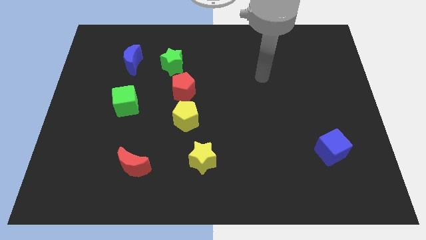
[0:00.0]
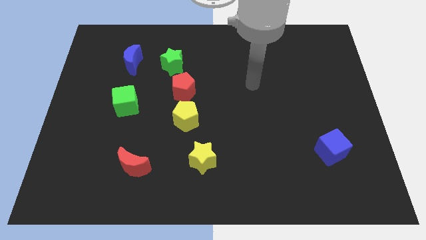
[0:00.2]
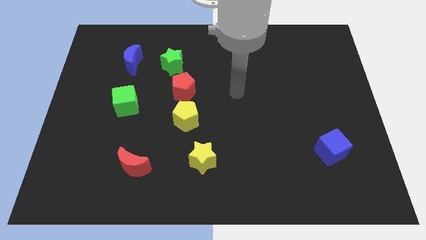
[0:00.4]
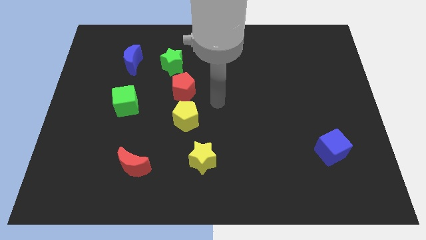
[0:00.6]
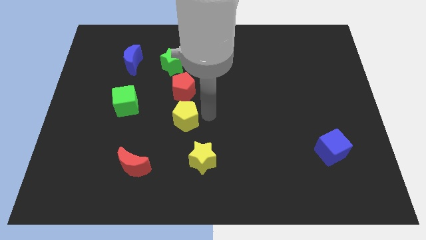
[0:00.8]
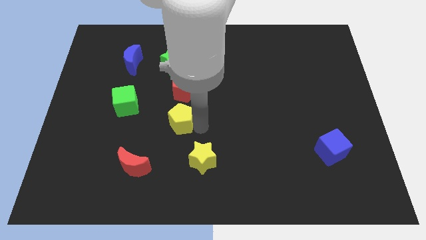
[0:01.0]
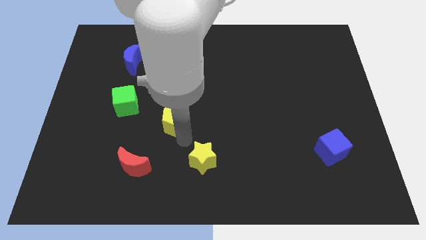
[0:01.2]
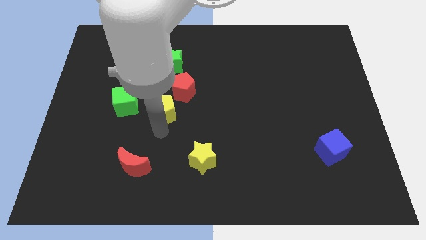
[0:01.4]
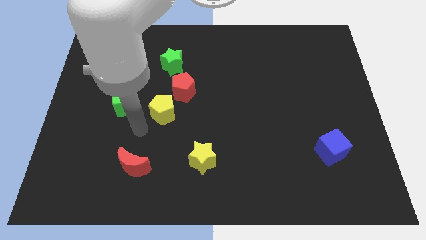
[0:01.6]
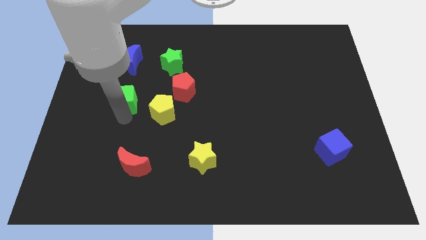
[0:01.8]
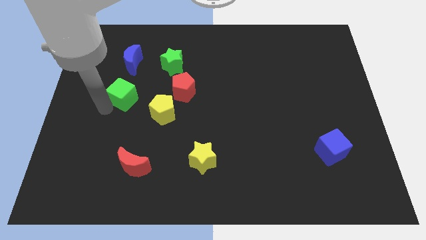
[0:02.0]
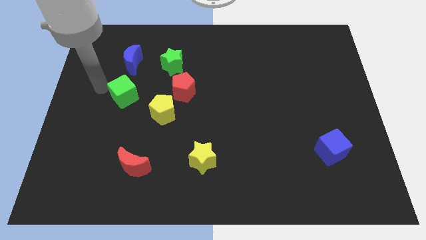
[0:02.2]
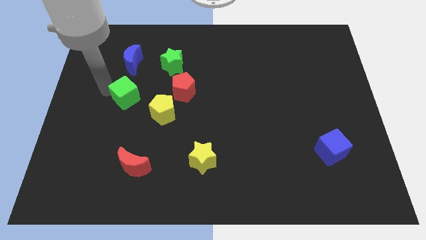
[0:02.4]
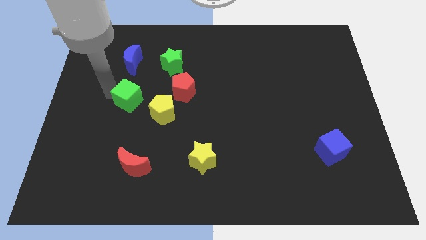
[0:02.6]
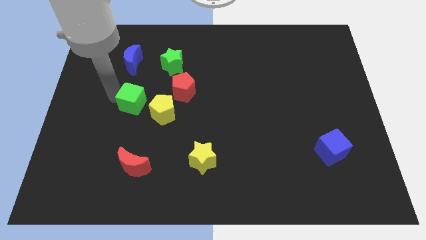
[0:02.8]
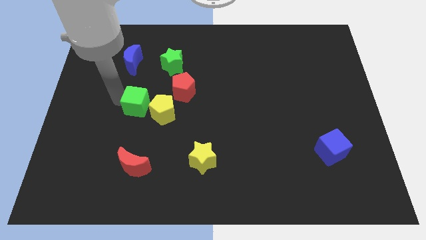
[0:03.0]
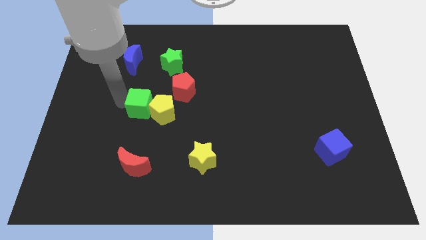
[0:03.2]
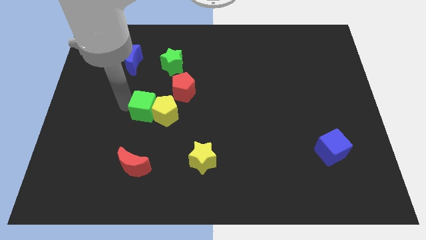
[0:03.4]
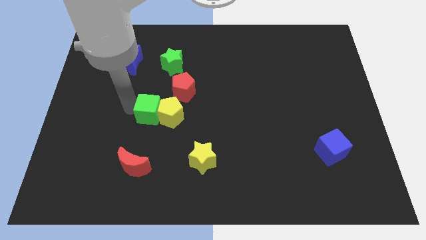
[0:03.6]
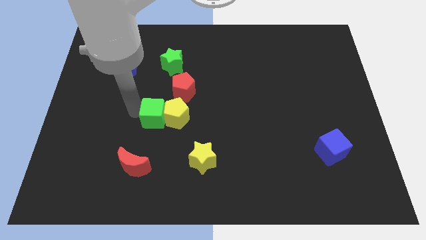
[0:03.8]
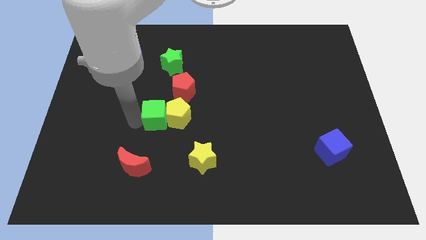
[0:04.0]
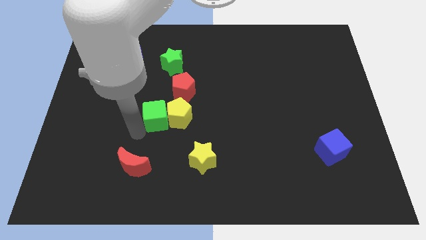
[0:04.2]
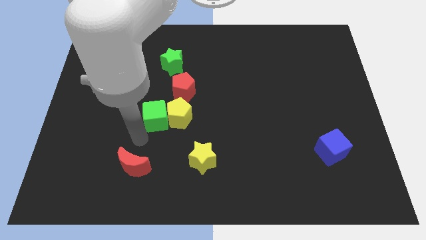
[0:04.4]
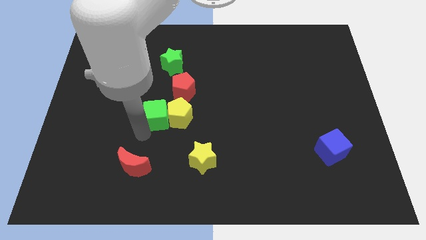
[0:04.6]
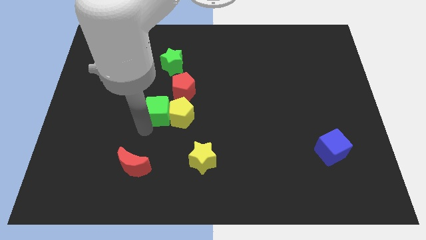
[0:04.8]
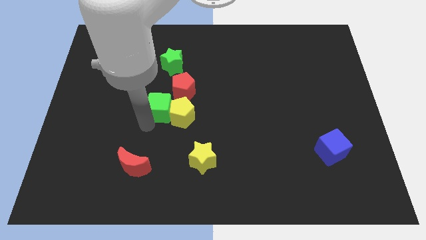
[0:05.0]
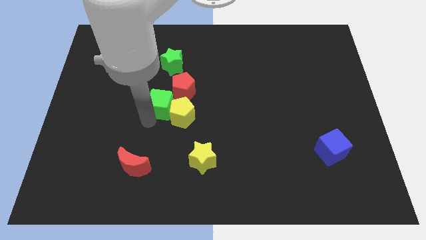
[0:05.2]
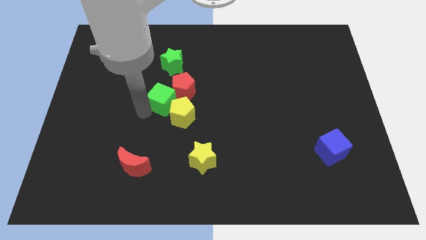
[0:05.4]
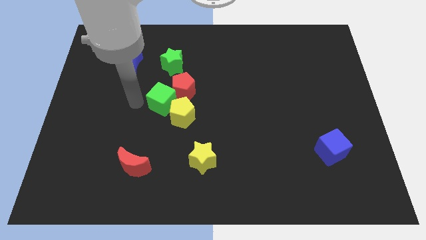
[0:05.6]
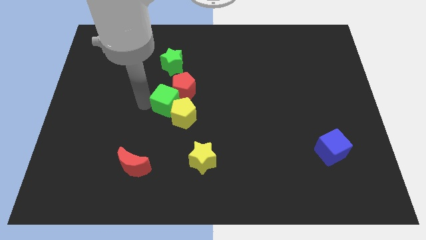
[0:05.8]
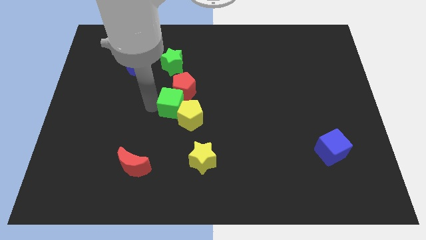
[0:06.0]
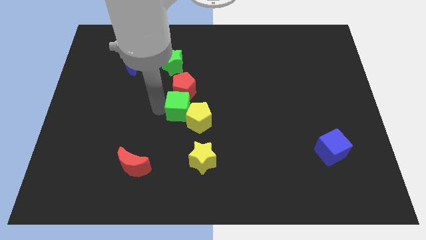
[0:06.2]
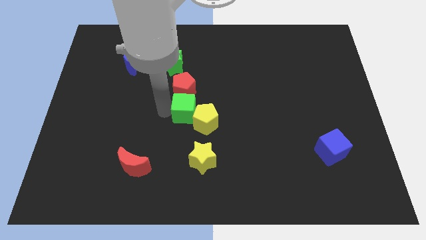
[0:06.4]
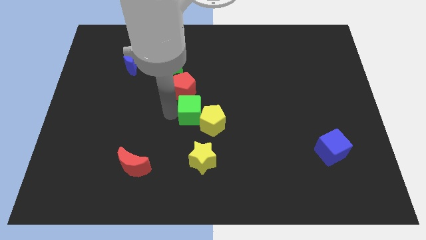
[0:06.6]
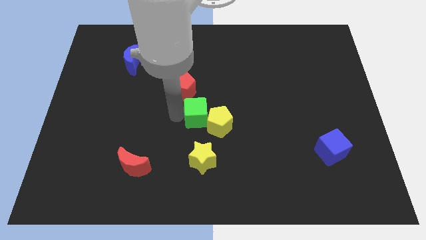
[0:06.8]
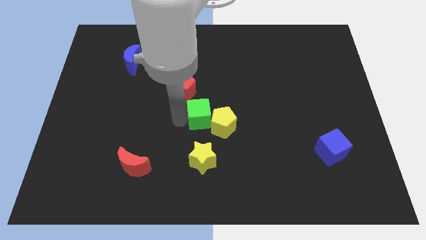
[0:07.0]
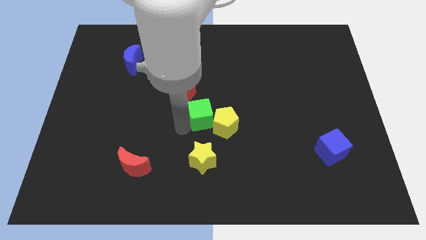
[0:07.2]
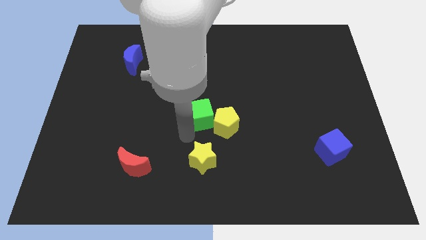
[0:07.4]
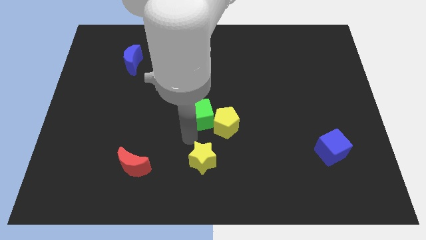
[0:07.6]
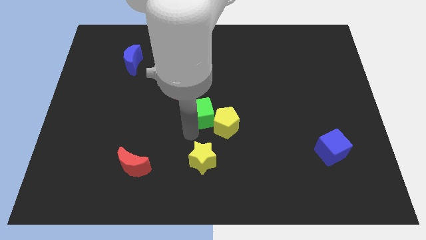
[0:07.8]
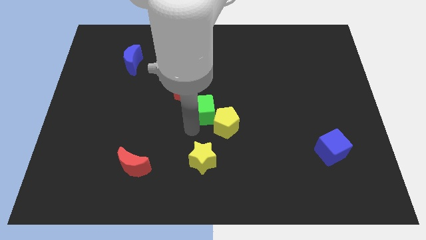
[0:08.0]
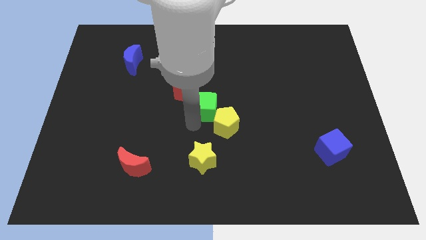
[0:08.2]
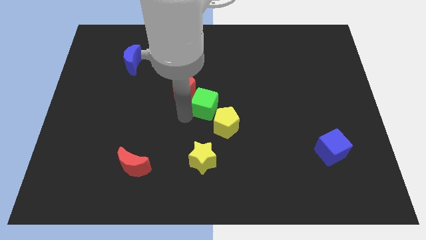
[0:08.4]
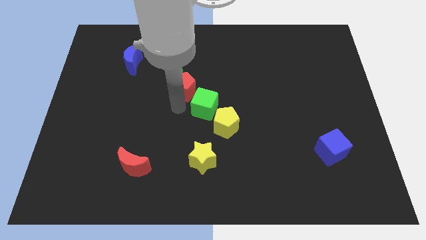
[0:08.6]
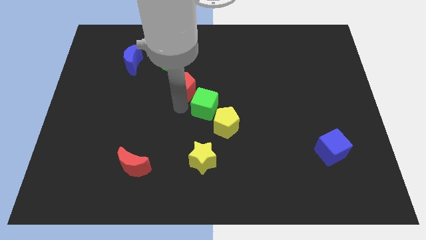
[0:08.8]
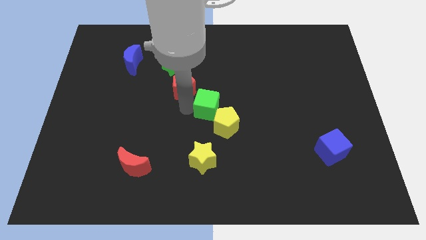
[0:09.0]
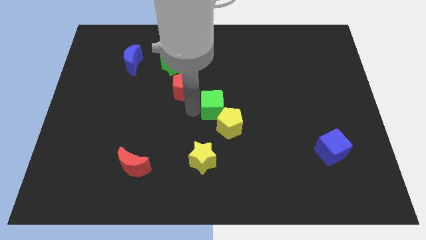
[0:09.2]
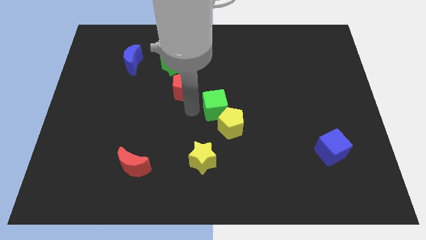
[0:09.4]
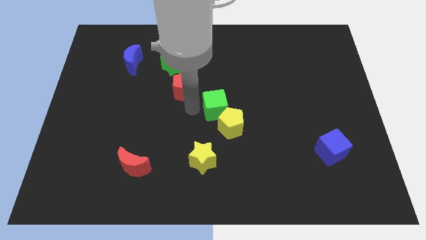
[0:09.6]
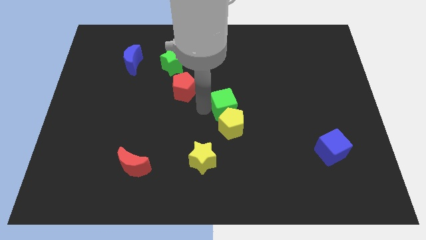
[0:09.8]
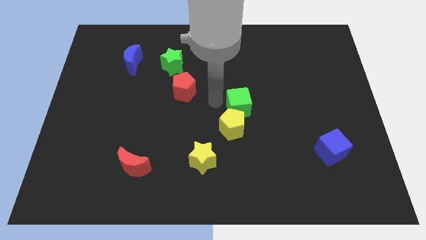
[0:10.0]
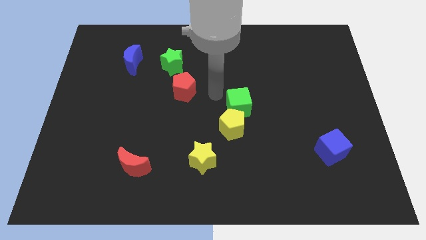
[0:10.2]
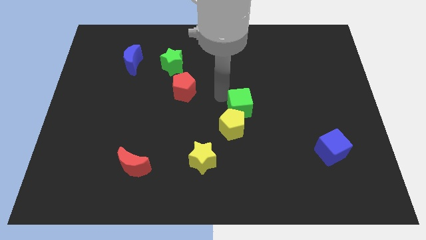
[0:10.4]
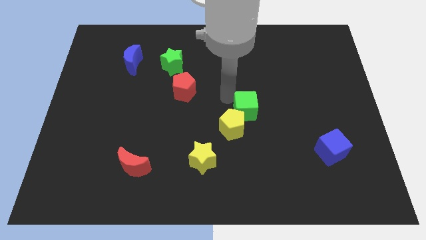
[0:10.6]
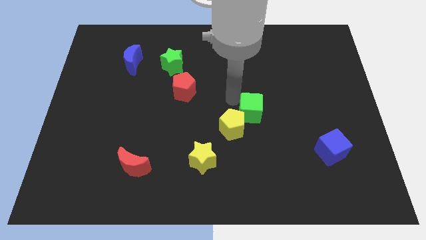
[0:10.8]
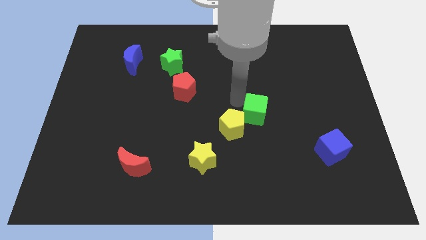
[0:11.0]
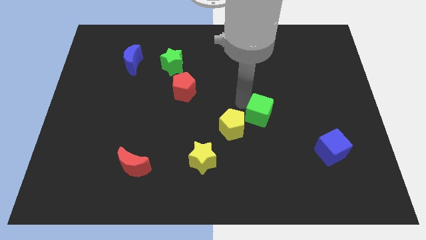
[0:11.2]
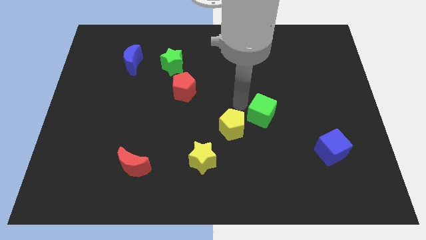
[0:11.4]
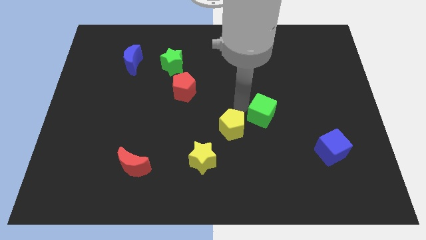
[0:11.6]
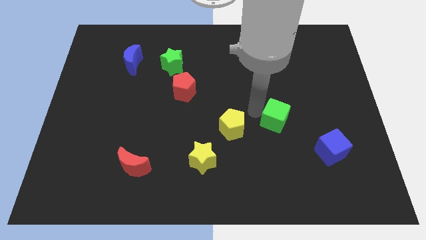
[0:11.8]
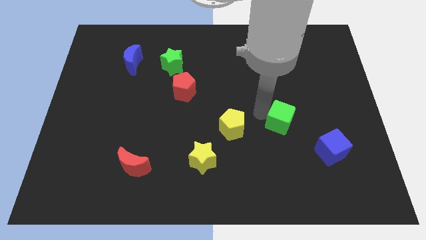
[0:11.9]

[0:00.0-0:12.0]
put the green cube to the top left side of the blue cube

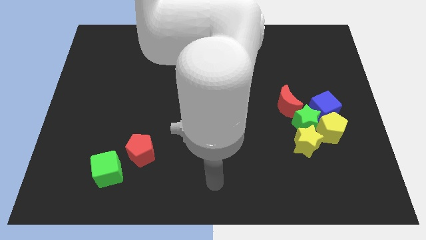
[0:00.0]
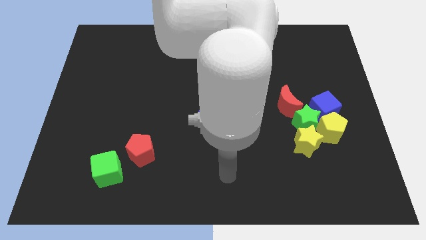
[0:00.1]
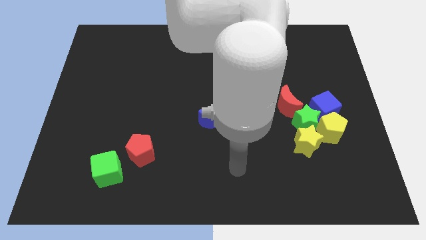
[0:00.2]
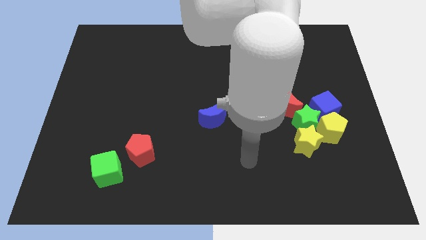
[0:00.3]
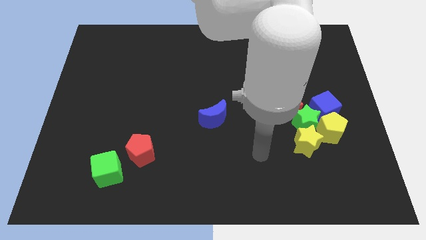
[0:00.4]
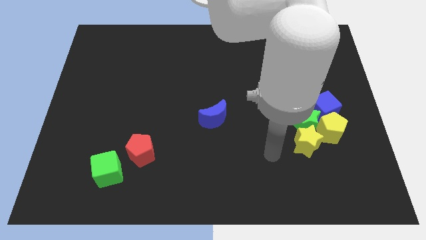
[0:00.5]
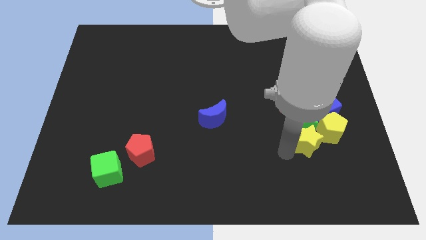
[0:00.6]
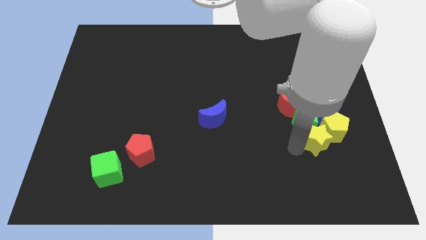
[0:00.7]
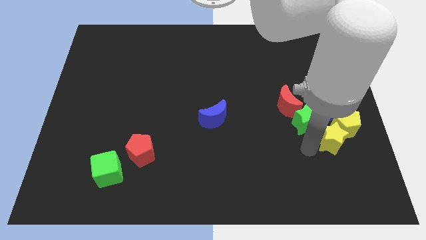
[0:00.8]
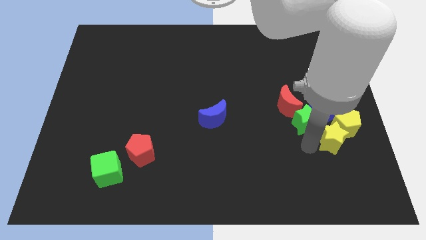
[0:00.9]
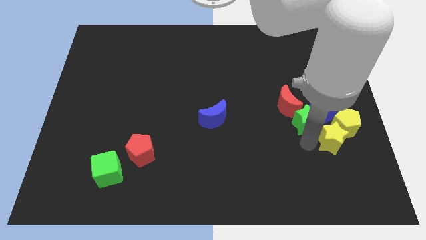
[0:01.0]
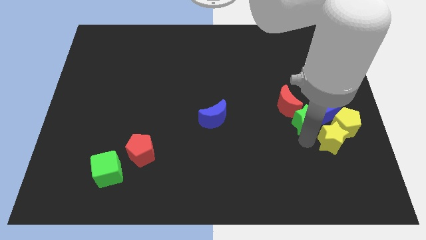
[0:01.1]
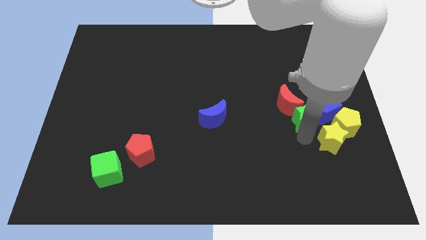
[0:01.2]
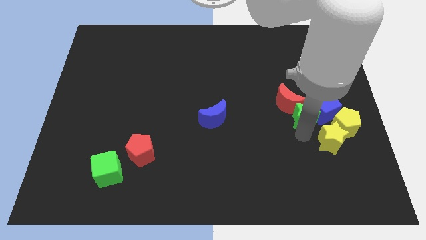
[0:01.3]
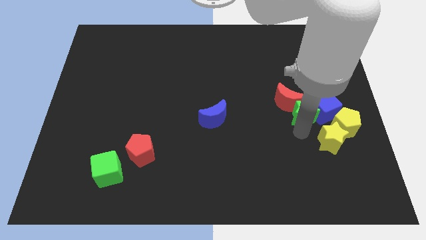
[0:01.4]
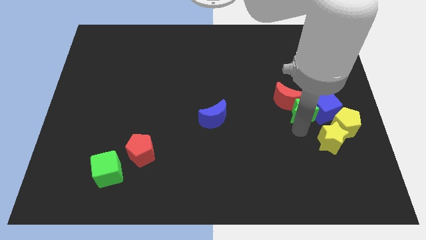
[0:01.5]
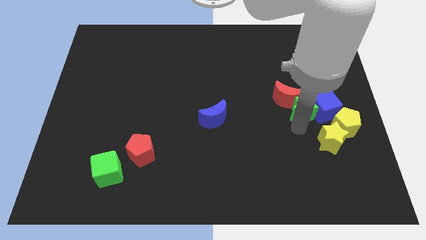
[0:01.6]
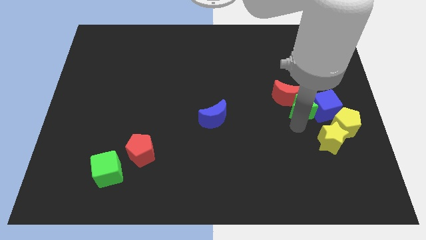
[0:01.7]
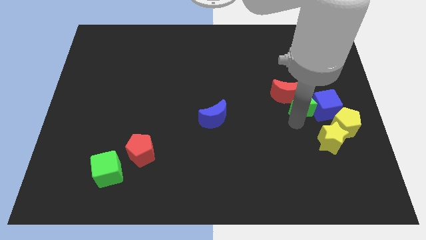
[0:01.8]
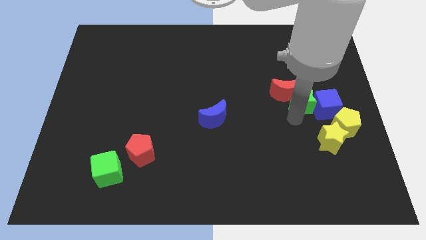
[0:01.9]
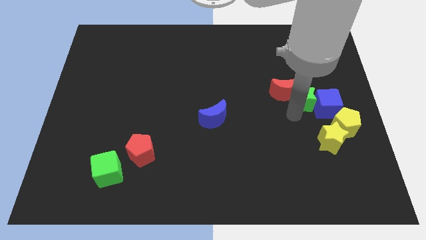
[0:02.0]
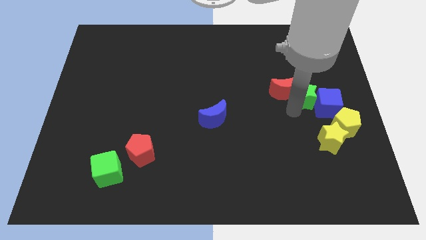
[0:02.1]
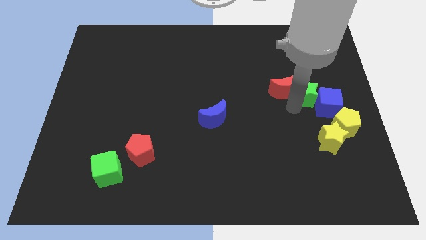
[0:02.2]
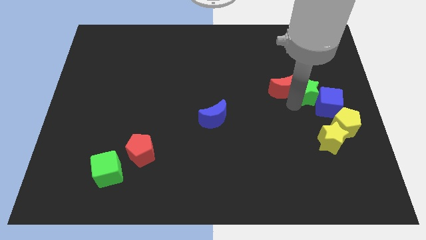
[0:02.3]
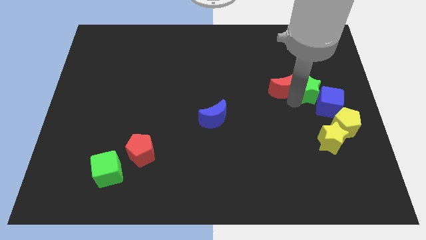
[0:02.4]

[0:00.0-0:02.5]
push the green star above the blue cube
